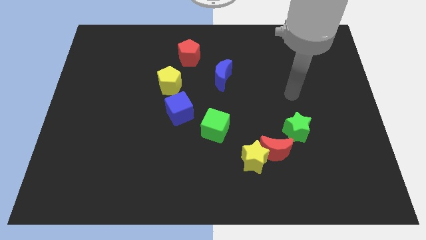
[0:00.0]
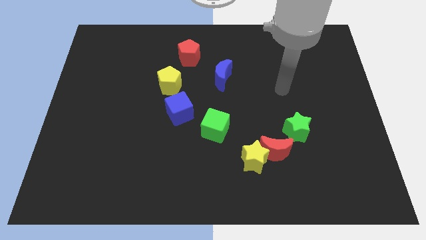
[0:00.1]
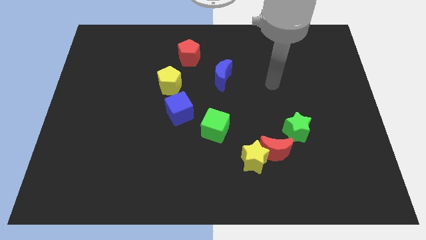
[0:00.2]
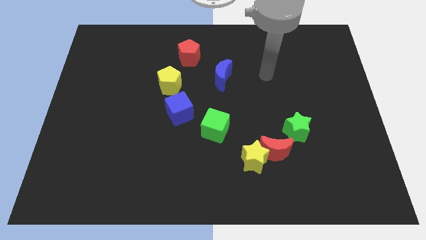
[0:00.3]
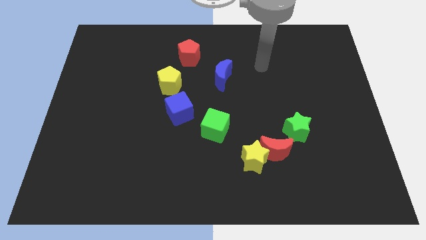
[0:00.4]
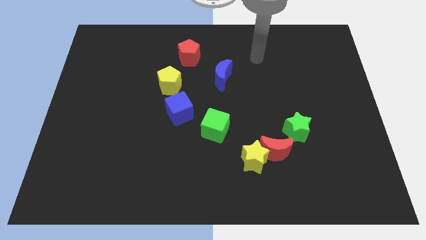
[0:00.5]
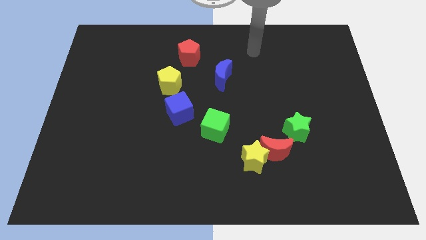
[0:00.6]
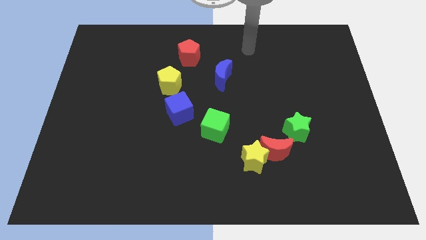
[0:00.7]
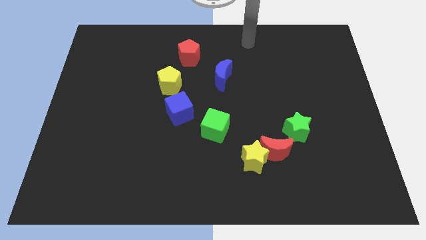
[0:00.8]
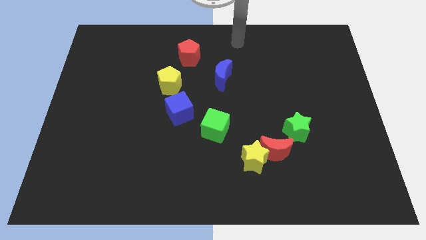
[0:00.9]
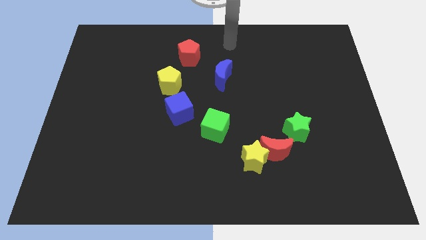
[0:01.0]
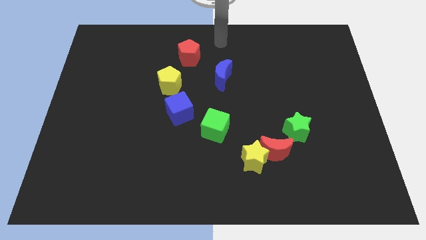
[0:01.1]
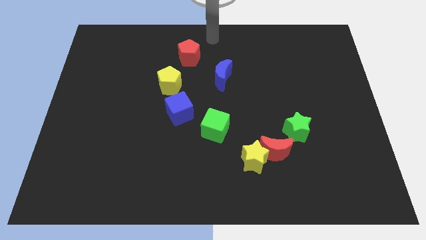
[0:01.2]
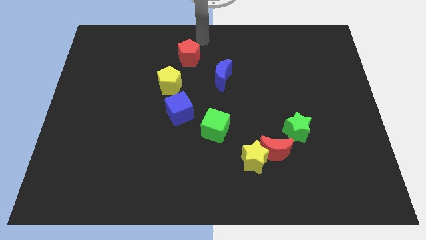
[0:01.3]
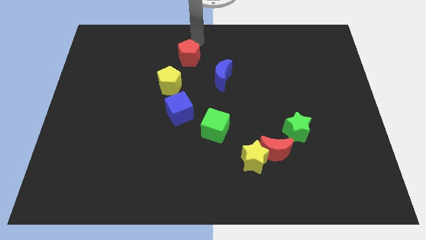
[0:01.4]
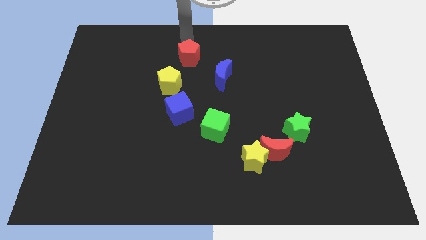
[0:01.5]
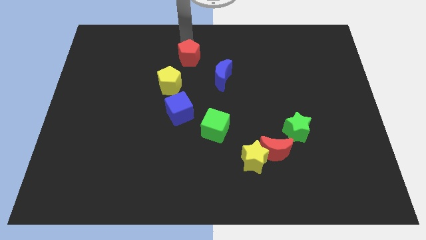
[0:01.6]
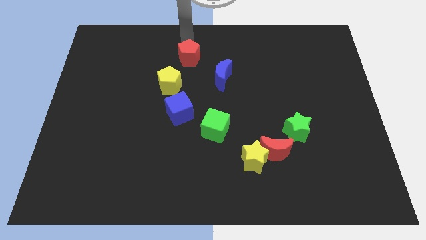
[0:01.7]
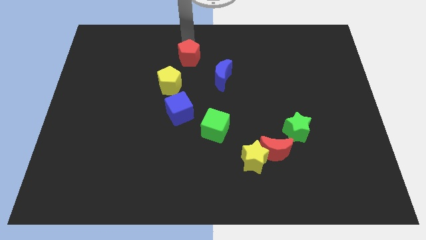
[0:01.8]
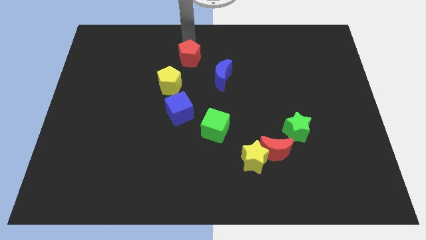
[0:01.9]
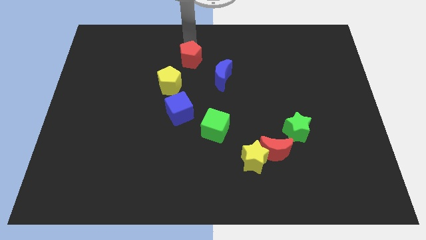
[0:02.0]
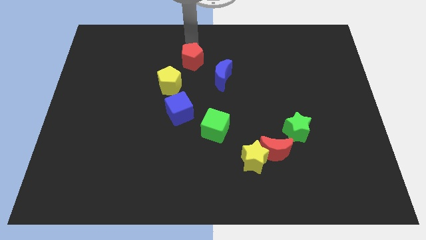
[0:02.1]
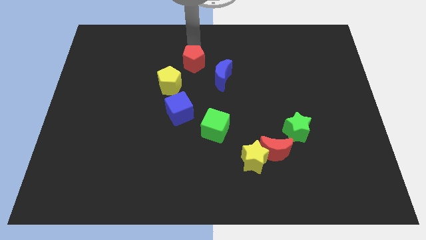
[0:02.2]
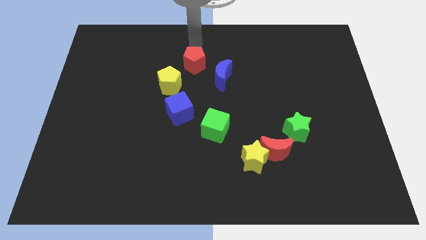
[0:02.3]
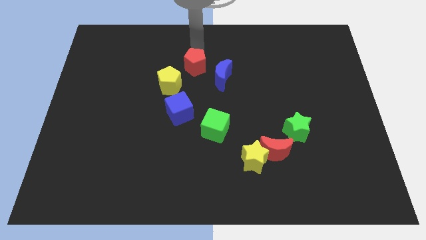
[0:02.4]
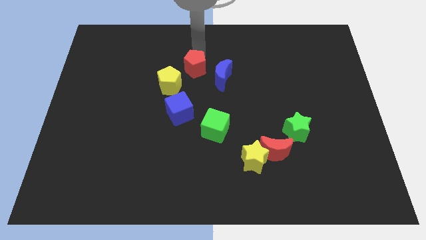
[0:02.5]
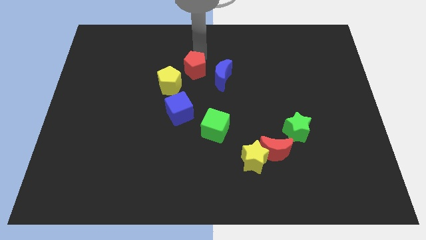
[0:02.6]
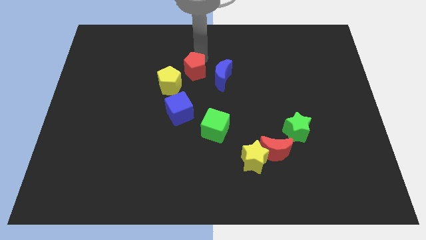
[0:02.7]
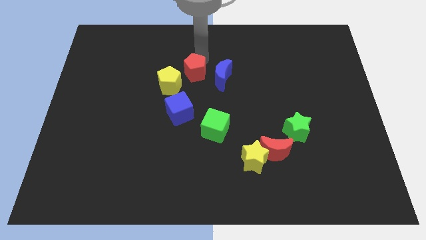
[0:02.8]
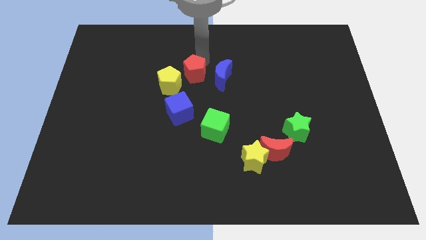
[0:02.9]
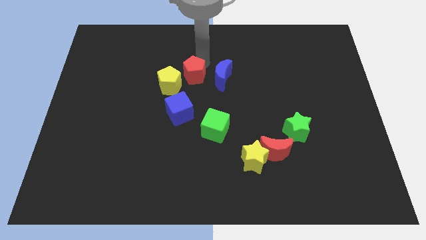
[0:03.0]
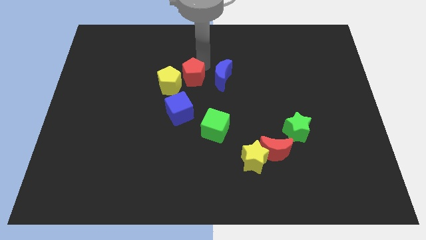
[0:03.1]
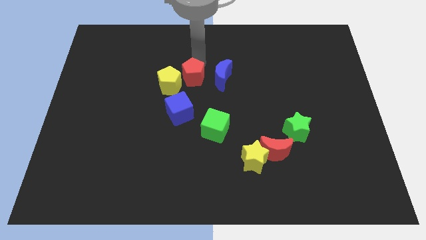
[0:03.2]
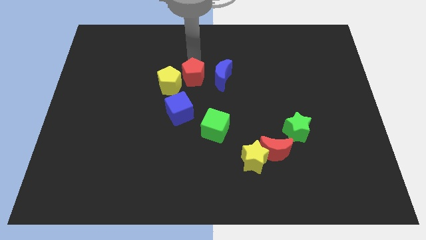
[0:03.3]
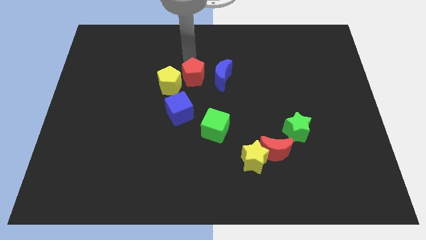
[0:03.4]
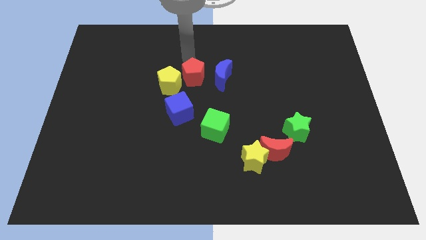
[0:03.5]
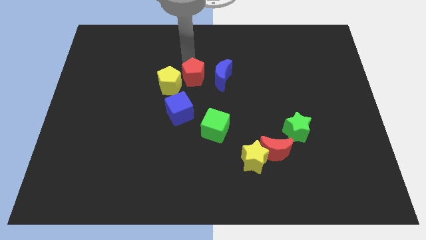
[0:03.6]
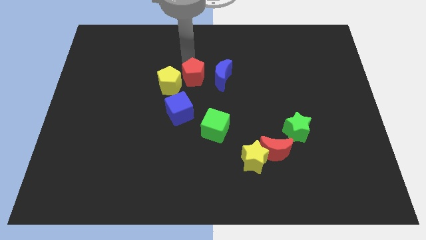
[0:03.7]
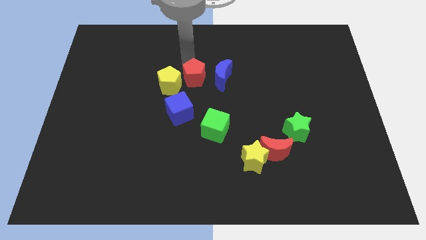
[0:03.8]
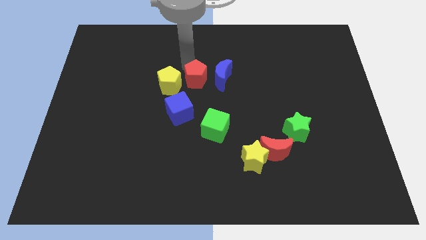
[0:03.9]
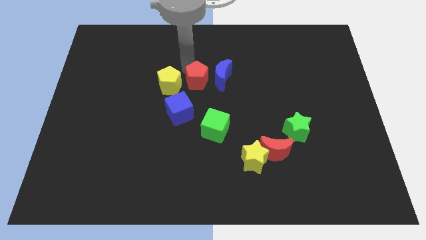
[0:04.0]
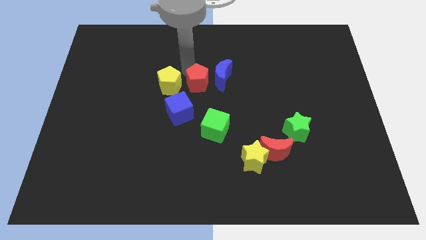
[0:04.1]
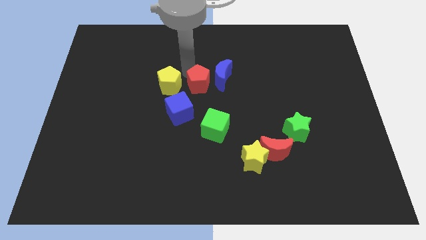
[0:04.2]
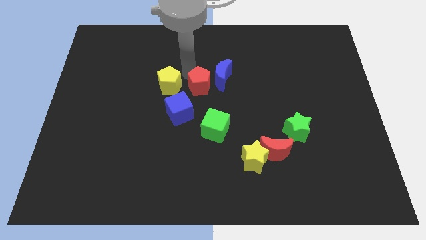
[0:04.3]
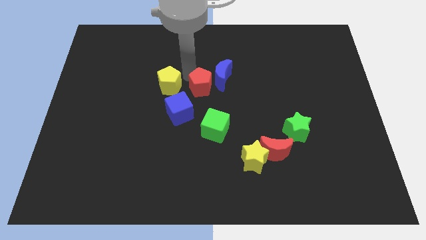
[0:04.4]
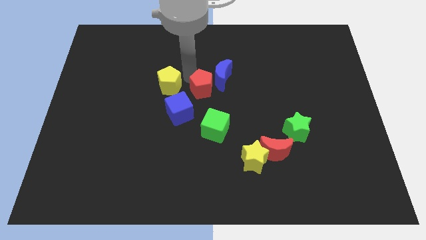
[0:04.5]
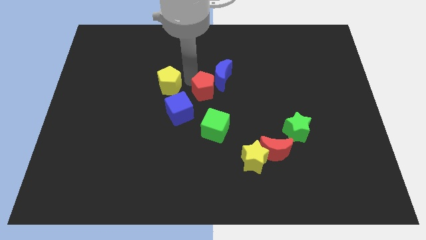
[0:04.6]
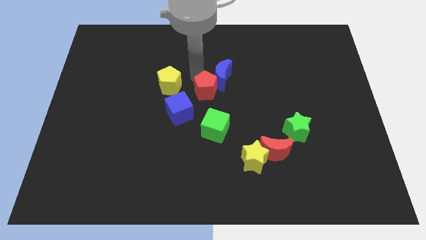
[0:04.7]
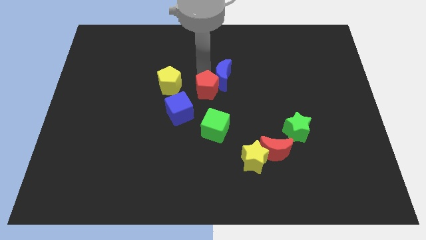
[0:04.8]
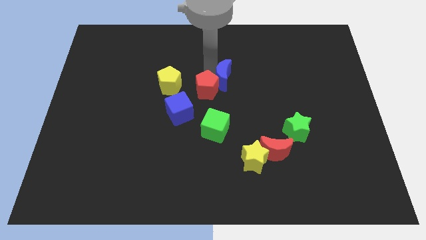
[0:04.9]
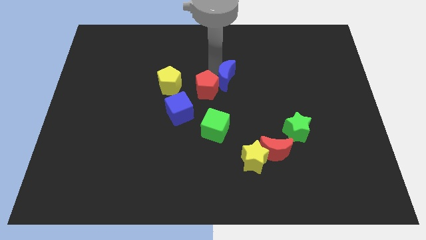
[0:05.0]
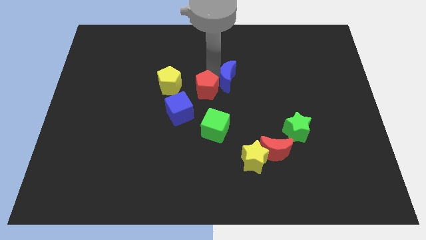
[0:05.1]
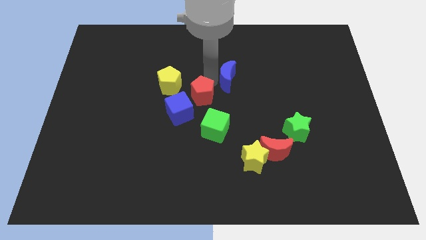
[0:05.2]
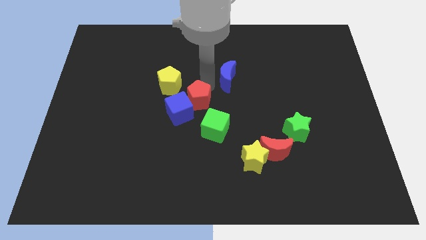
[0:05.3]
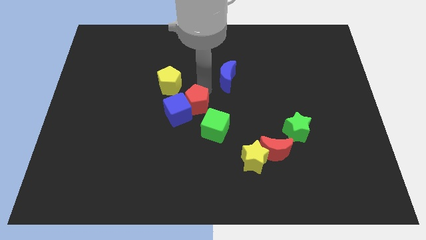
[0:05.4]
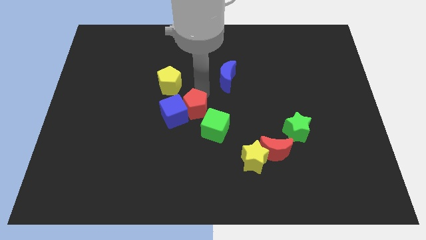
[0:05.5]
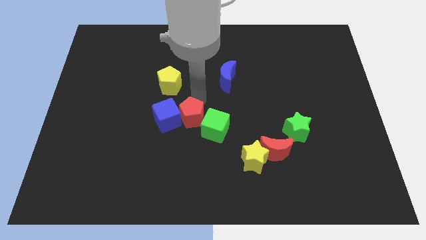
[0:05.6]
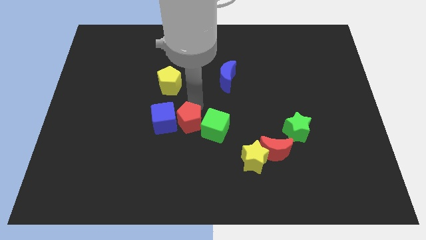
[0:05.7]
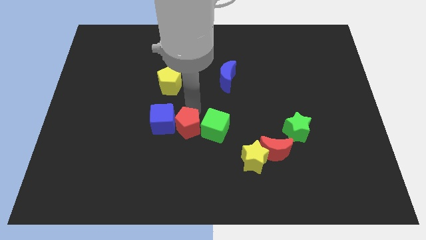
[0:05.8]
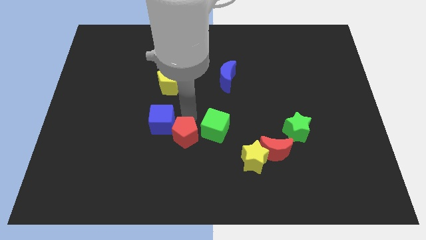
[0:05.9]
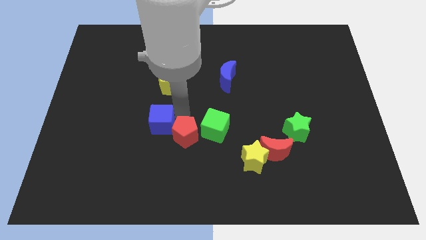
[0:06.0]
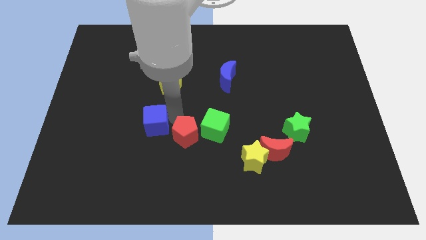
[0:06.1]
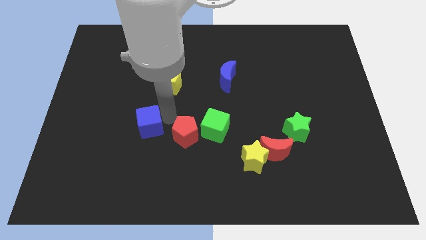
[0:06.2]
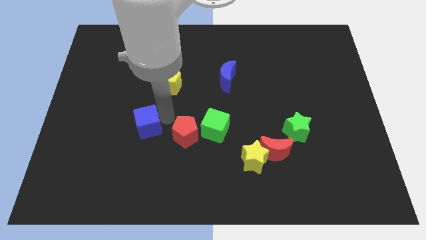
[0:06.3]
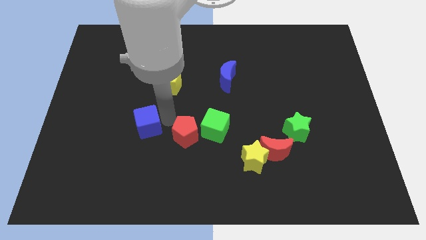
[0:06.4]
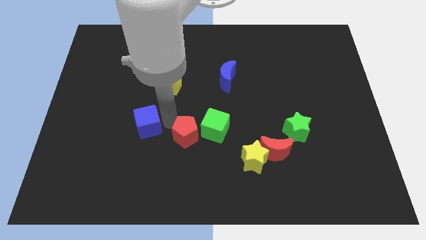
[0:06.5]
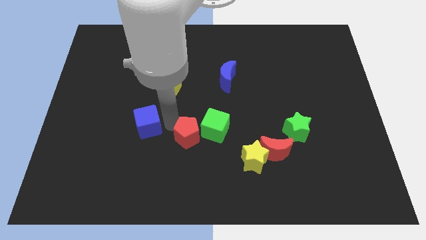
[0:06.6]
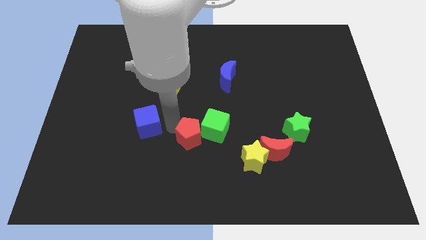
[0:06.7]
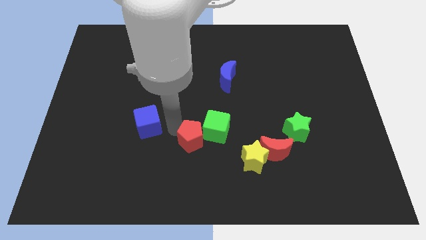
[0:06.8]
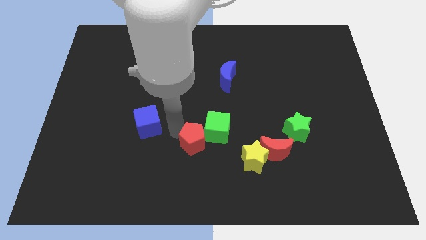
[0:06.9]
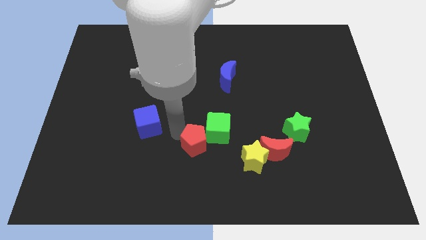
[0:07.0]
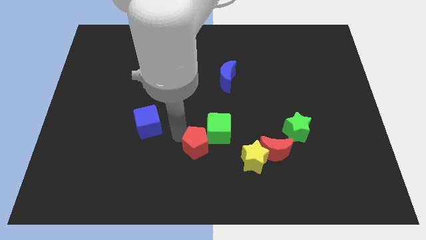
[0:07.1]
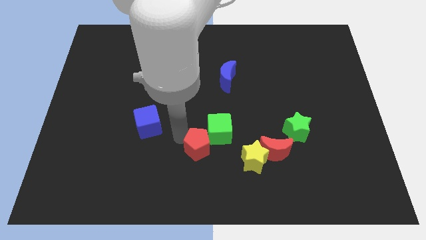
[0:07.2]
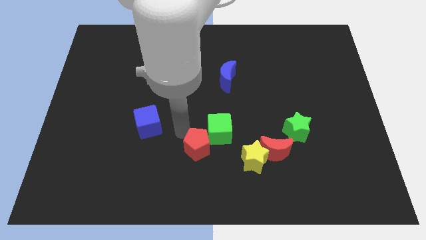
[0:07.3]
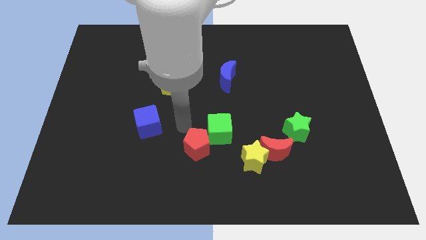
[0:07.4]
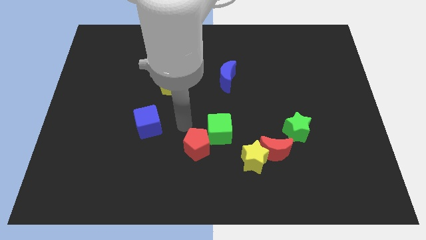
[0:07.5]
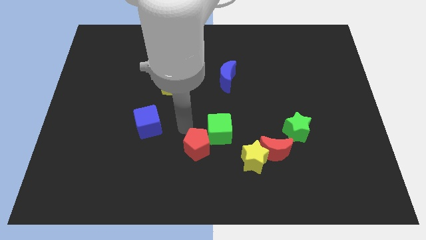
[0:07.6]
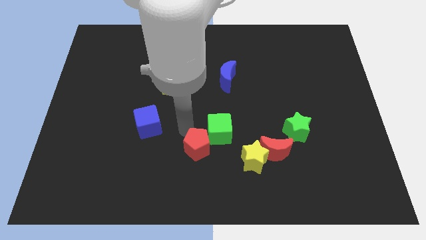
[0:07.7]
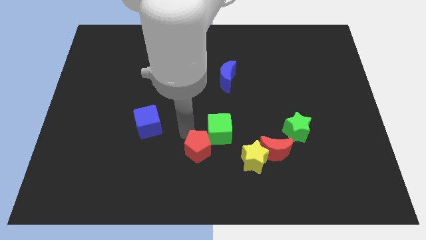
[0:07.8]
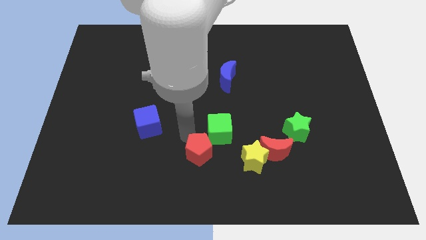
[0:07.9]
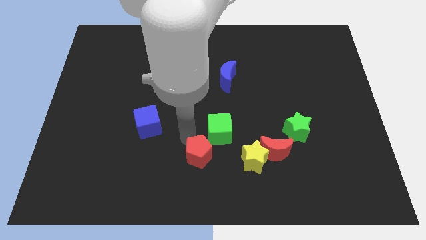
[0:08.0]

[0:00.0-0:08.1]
slide the red pentagon to the bottom side
